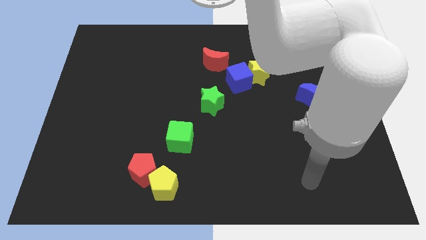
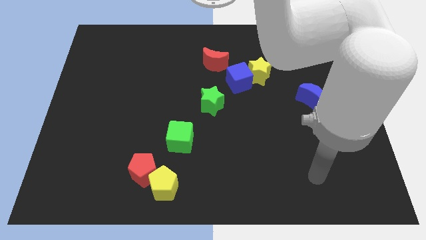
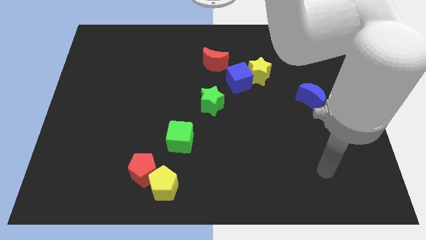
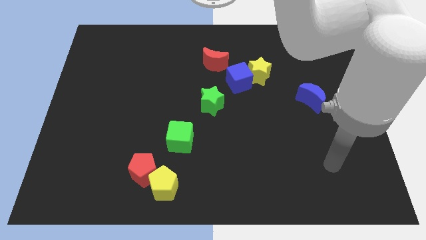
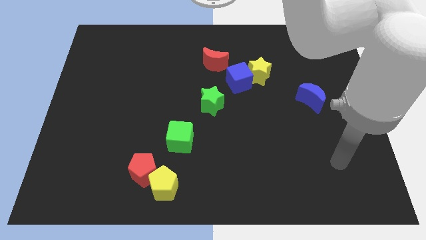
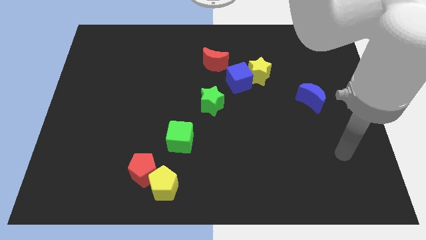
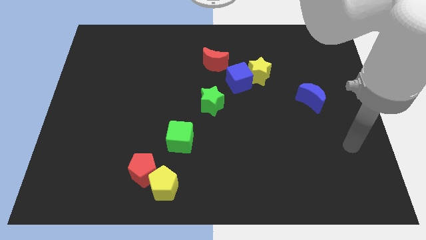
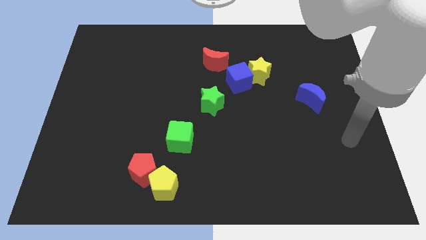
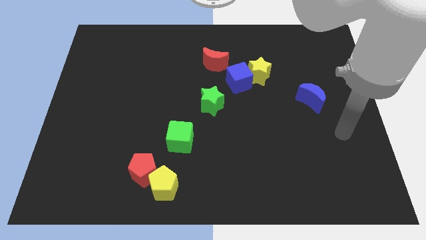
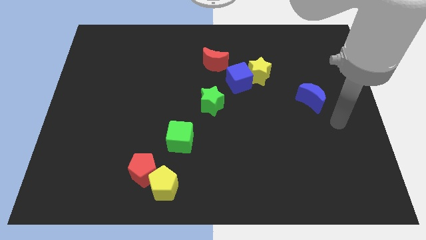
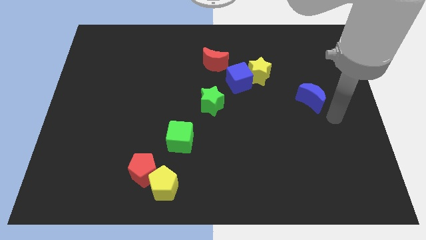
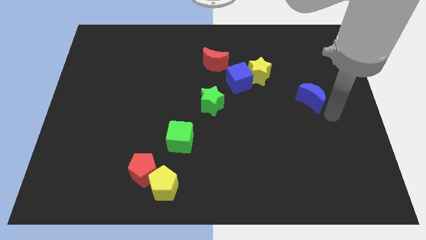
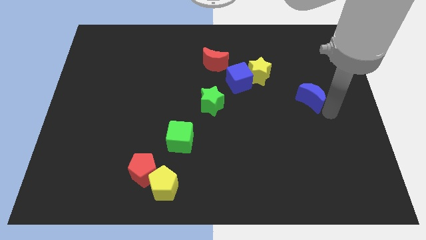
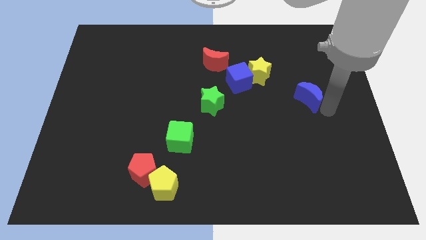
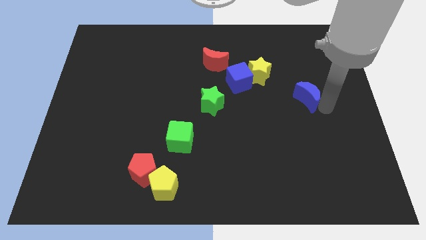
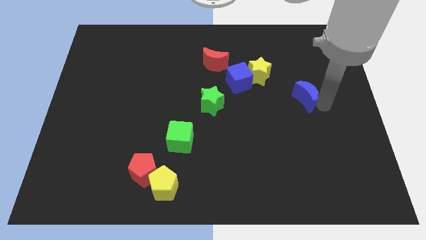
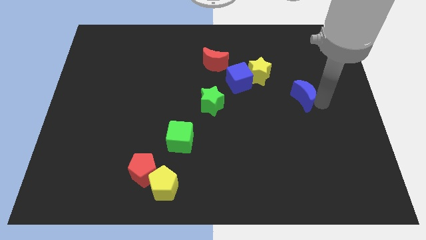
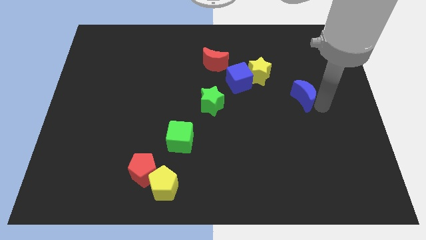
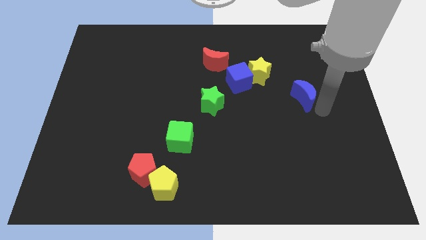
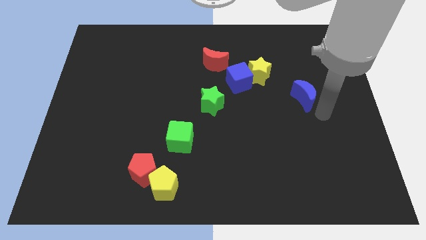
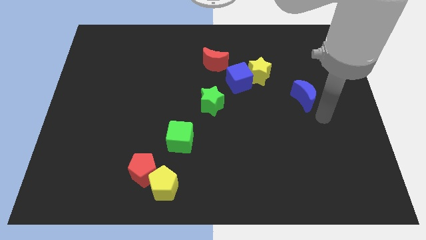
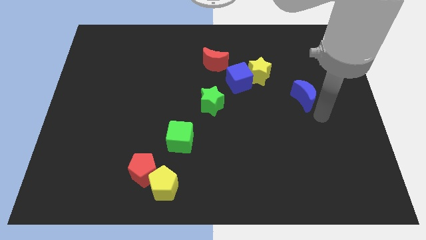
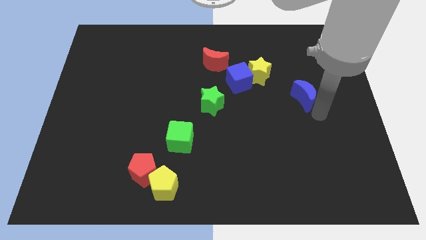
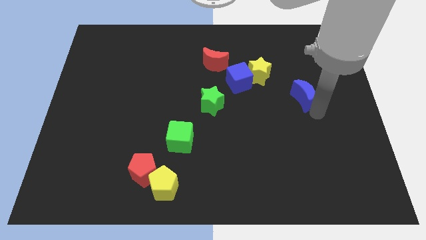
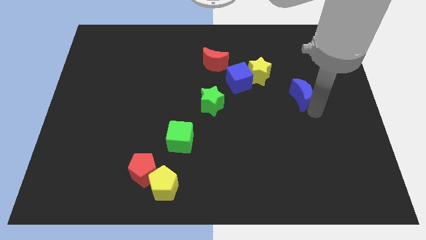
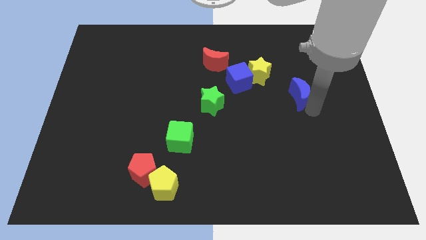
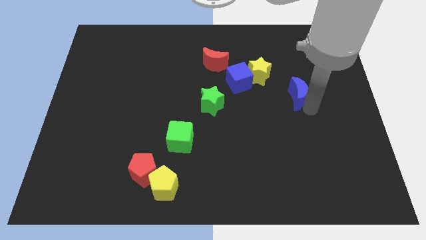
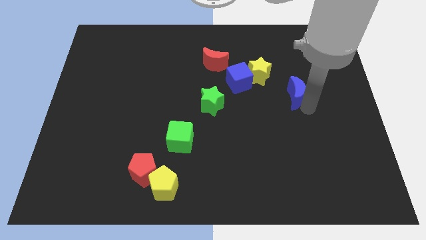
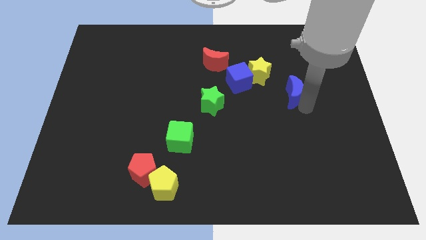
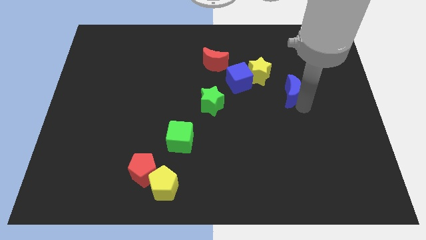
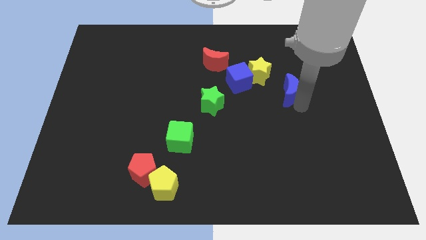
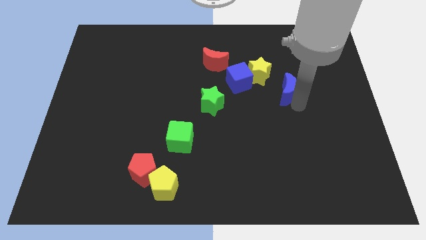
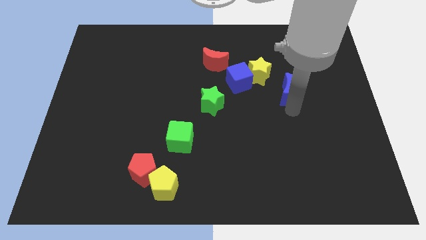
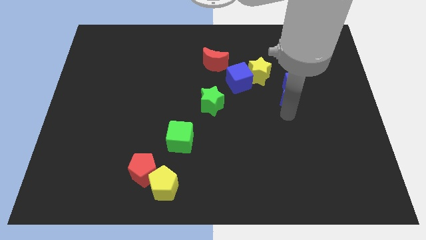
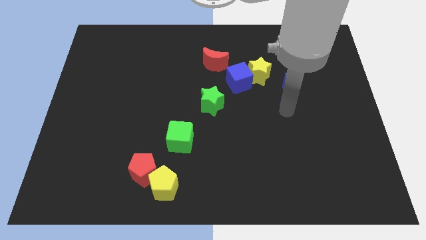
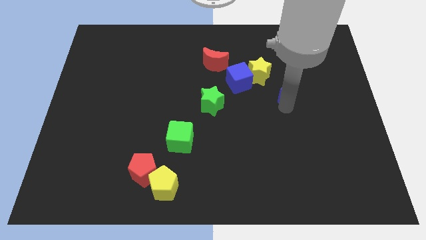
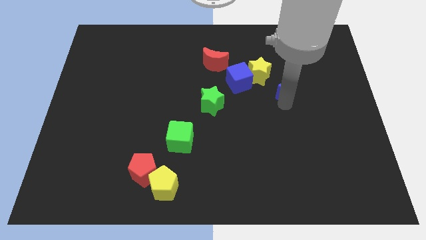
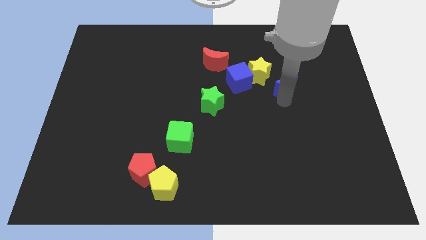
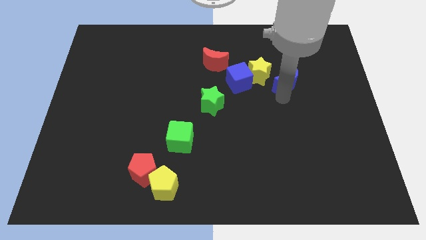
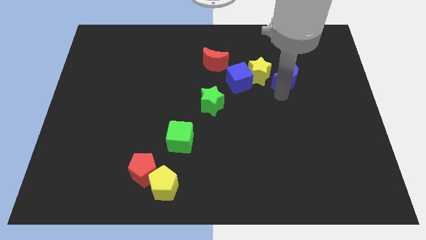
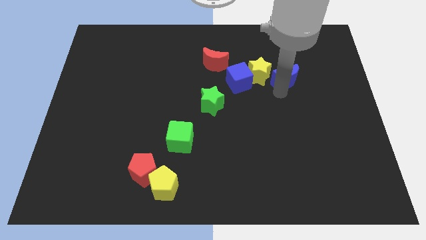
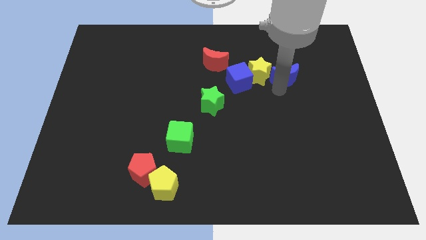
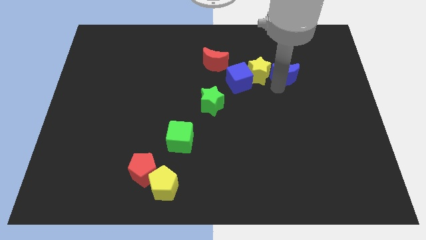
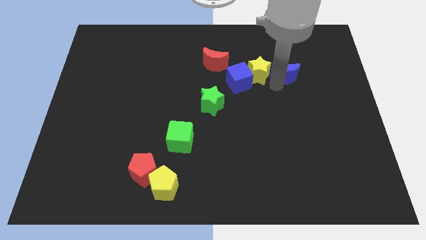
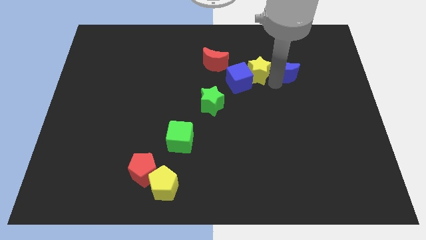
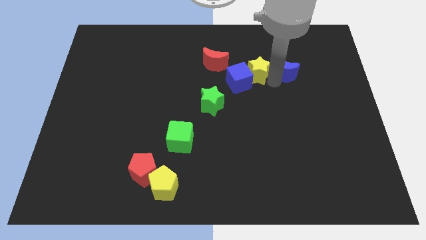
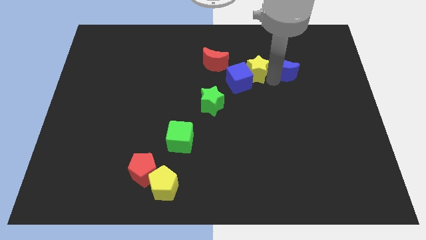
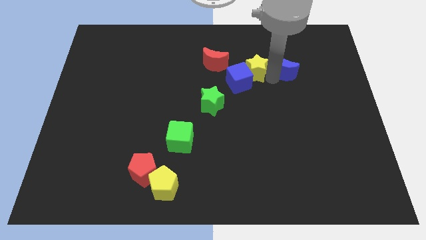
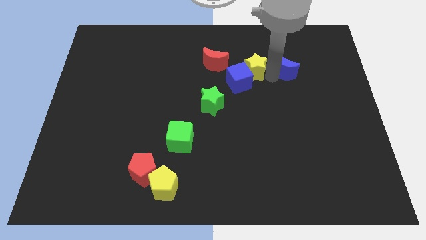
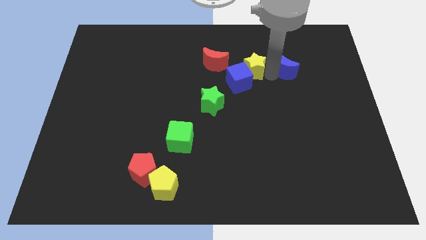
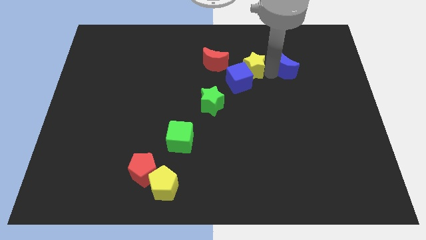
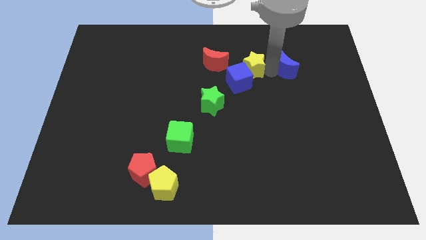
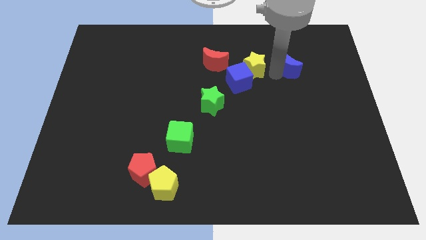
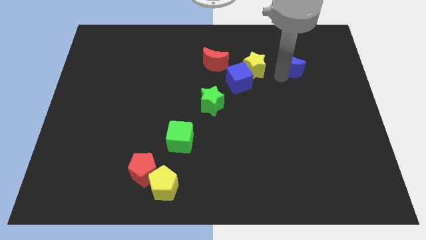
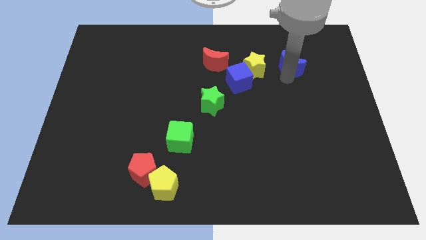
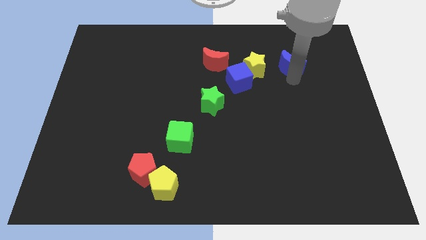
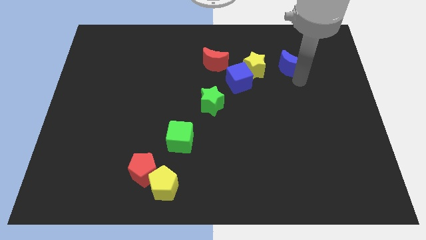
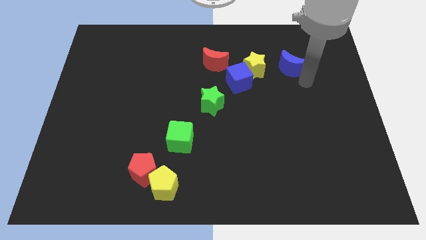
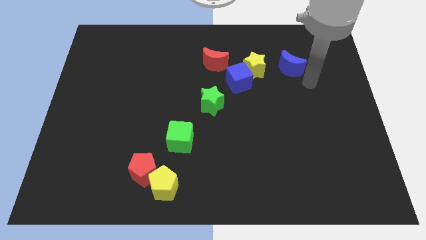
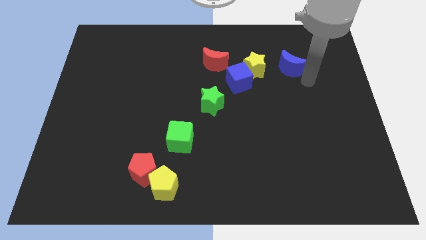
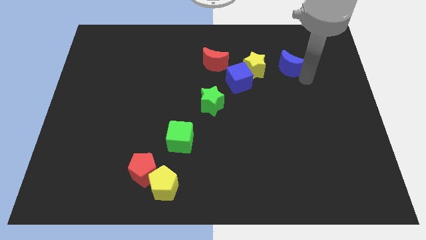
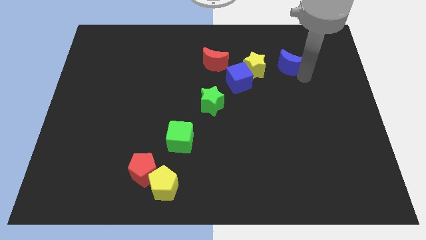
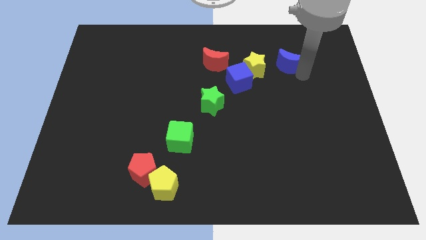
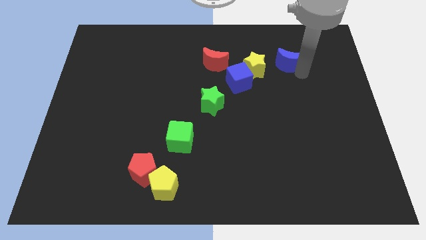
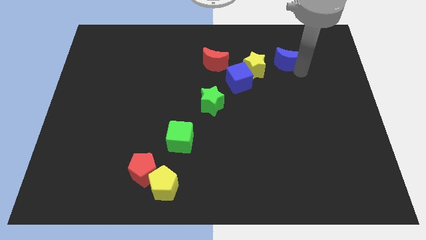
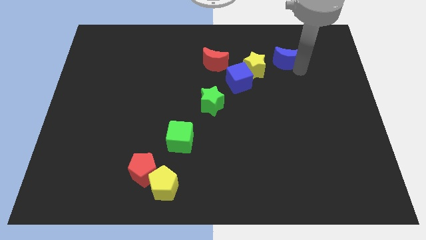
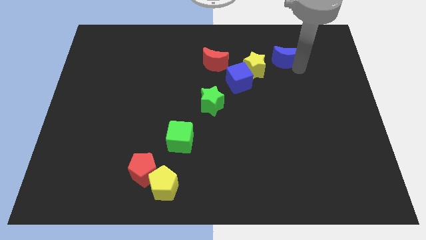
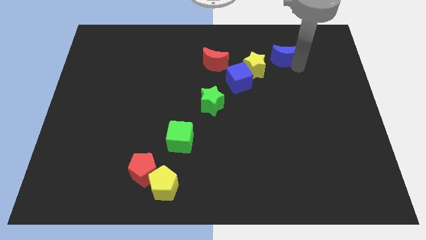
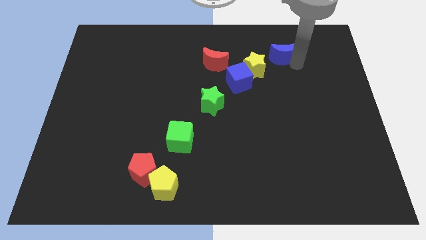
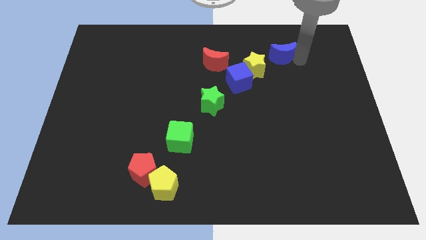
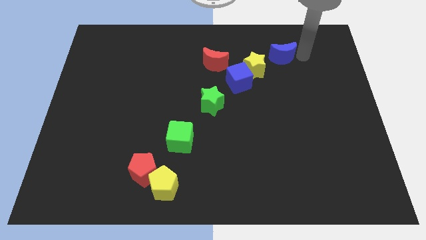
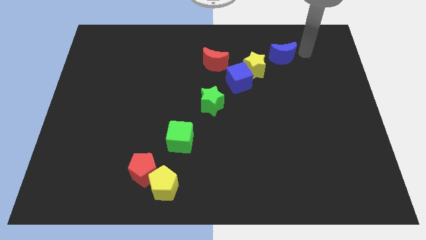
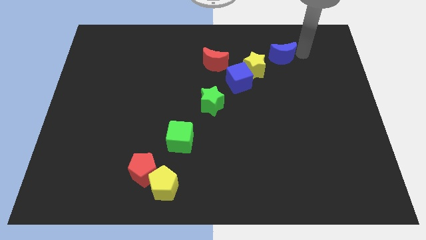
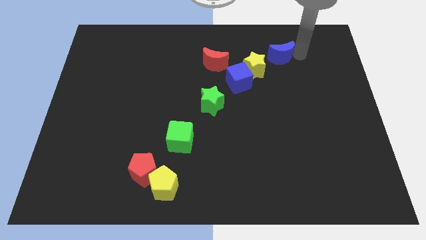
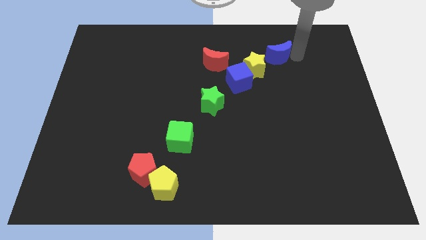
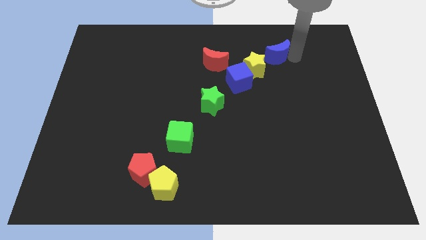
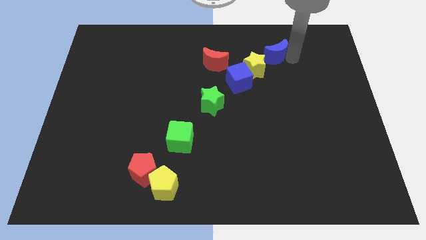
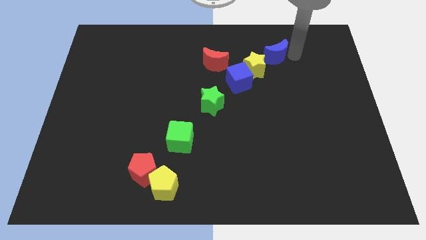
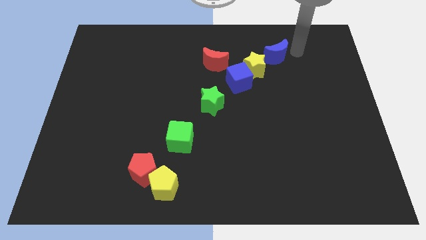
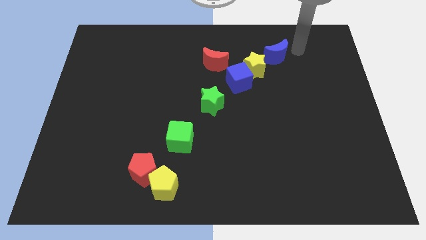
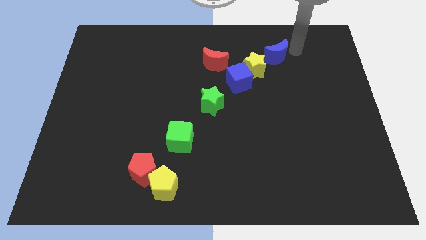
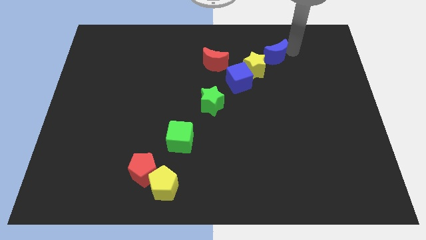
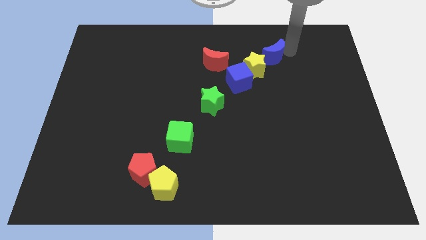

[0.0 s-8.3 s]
put the blue moon to the right side of the red moon
